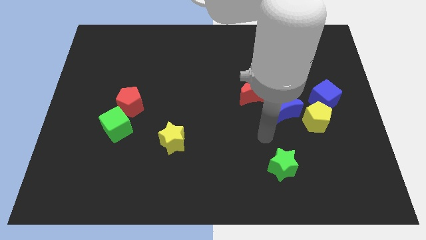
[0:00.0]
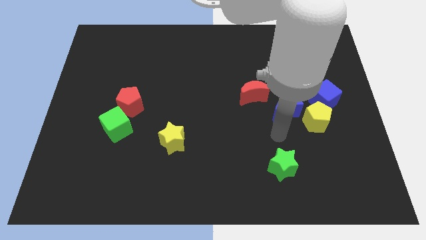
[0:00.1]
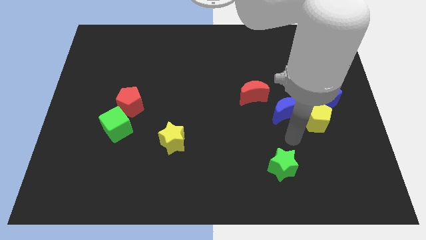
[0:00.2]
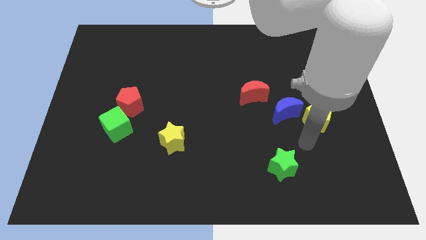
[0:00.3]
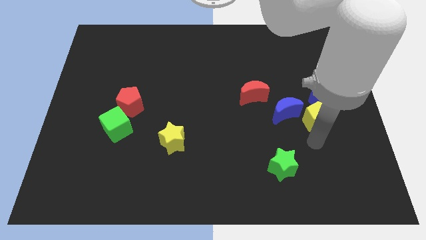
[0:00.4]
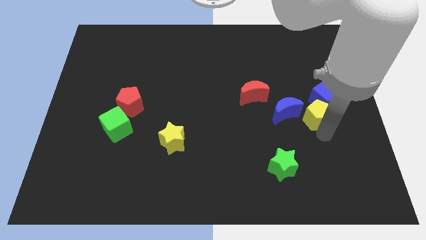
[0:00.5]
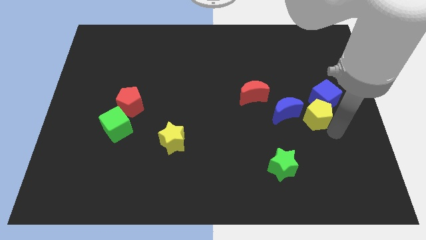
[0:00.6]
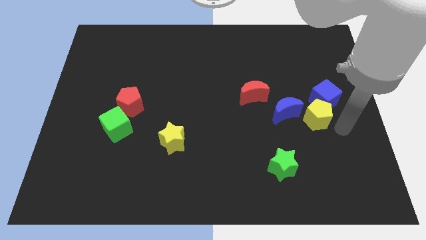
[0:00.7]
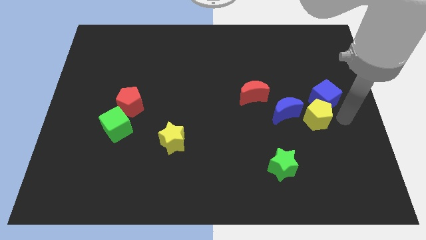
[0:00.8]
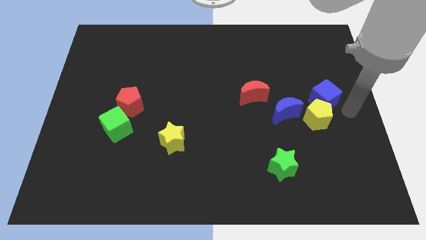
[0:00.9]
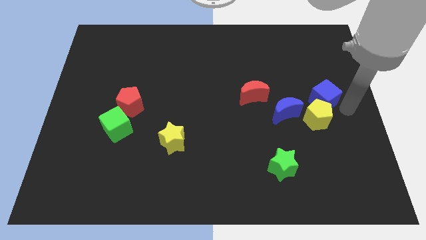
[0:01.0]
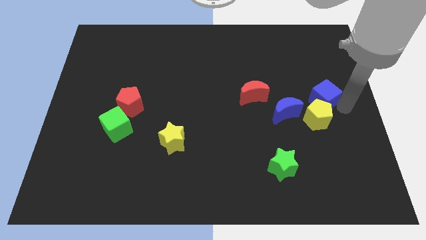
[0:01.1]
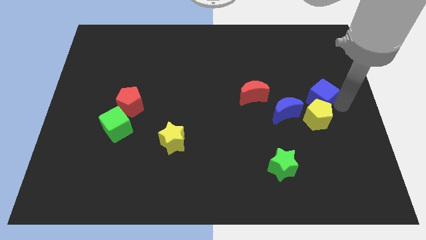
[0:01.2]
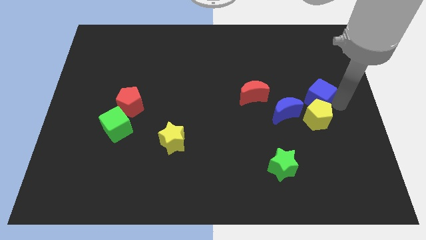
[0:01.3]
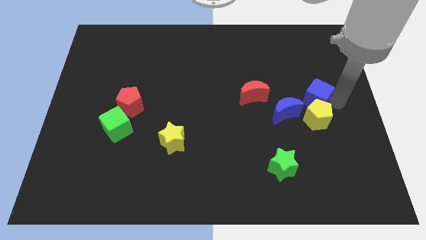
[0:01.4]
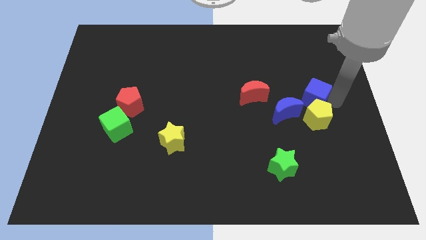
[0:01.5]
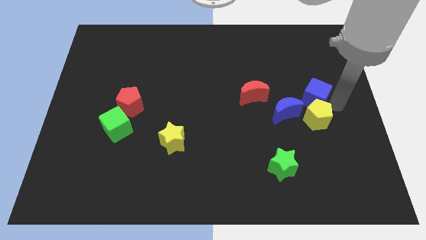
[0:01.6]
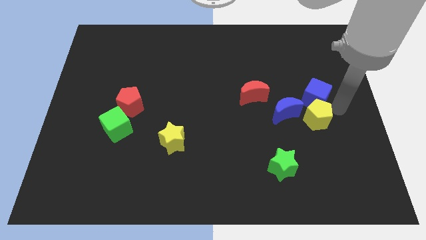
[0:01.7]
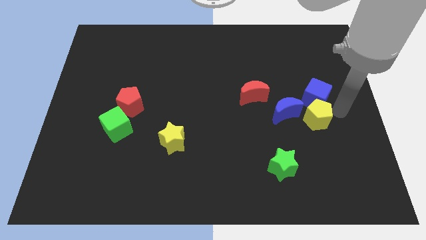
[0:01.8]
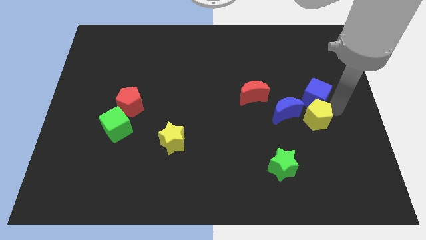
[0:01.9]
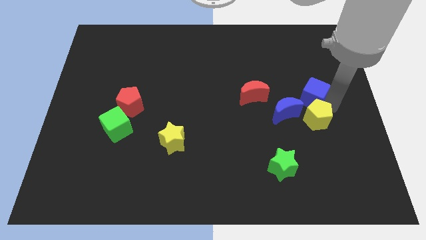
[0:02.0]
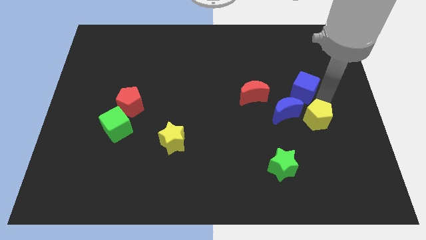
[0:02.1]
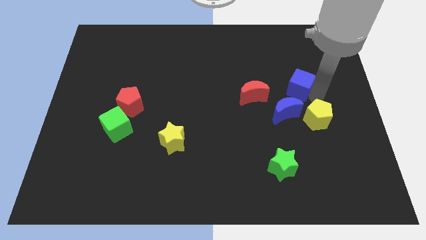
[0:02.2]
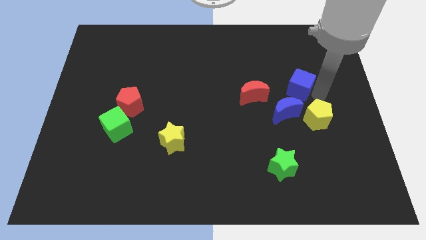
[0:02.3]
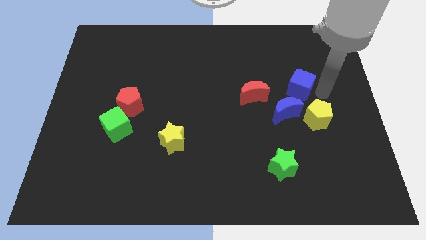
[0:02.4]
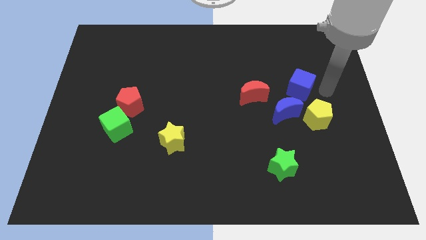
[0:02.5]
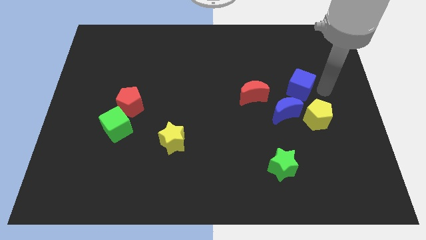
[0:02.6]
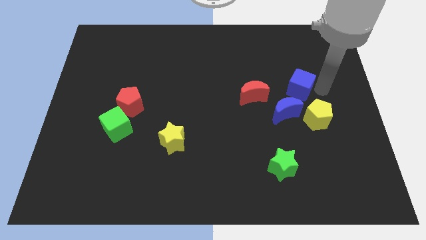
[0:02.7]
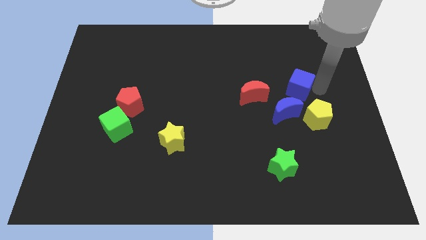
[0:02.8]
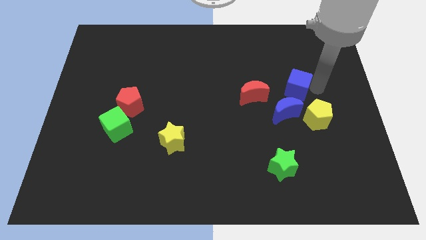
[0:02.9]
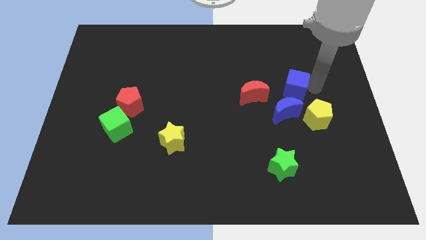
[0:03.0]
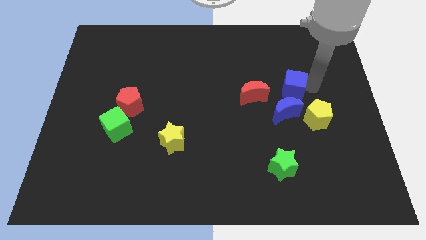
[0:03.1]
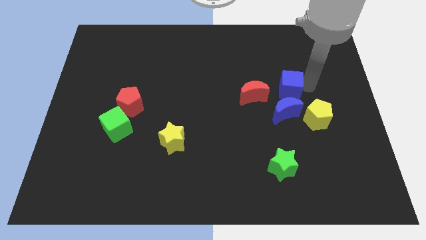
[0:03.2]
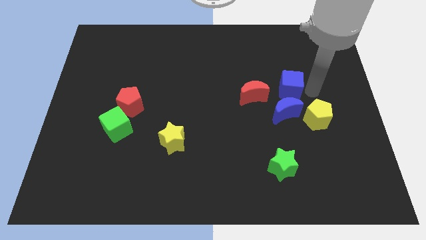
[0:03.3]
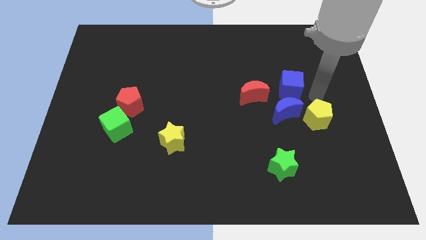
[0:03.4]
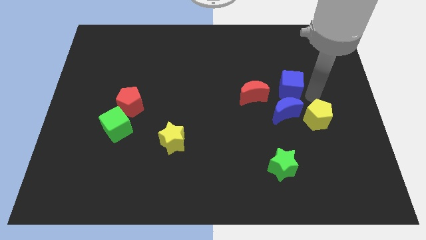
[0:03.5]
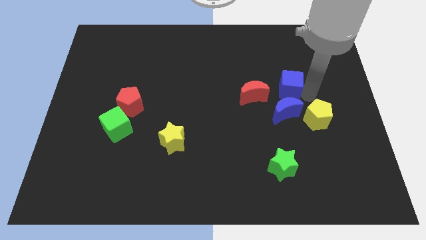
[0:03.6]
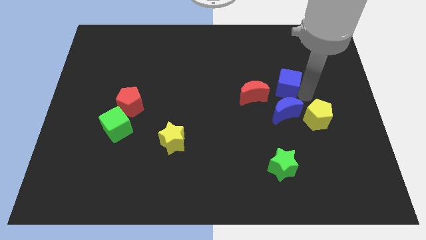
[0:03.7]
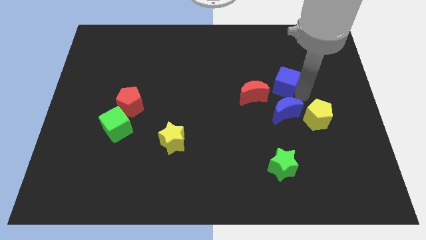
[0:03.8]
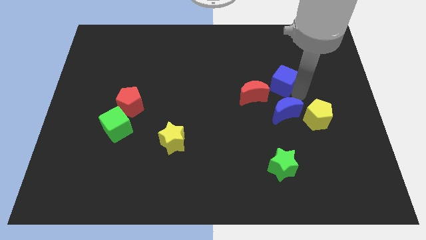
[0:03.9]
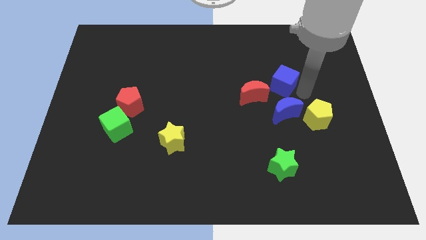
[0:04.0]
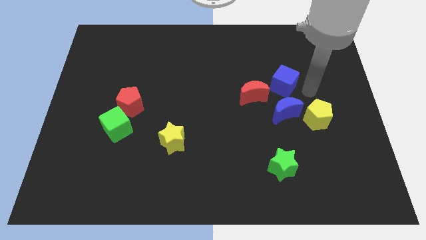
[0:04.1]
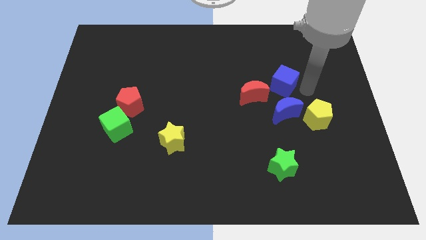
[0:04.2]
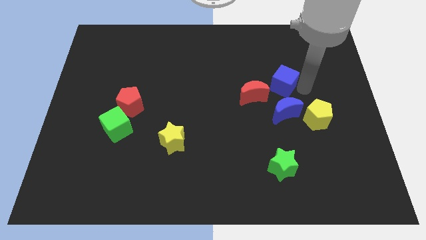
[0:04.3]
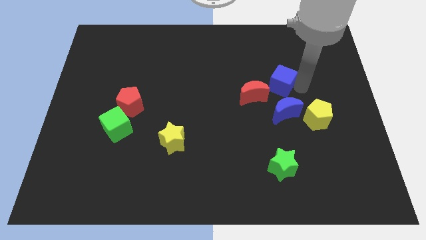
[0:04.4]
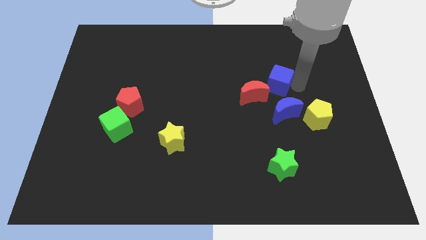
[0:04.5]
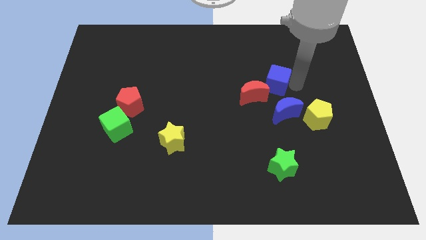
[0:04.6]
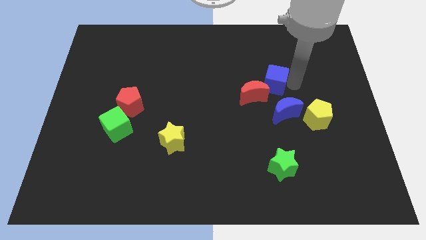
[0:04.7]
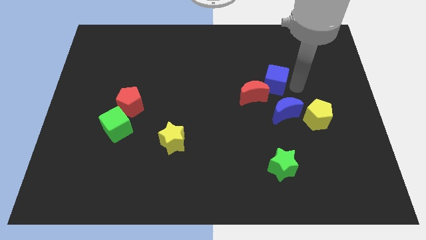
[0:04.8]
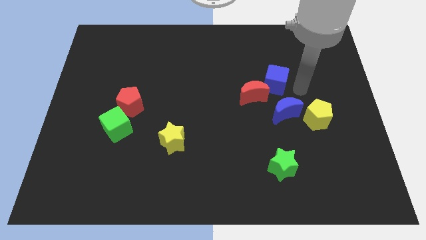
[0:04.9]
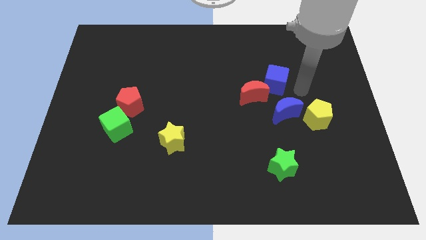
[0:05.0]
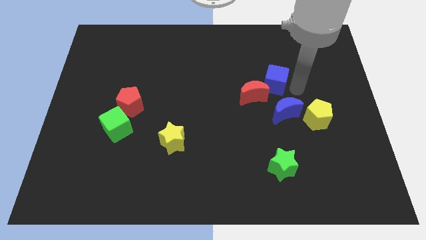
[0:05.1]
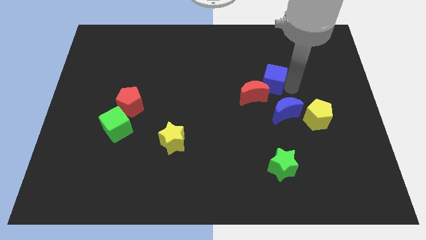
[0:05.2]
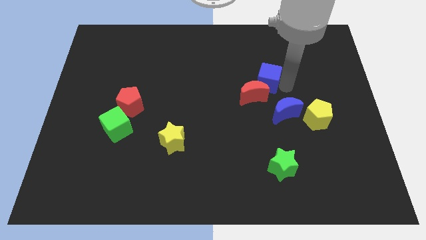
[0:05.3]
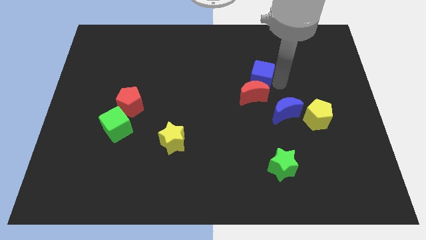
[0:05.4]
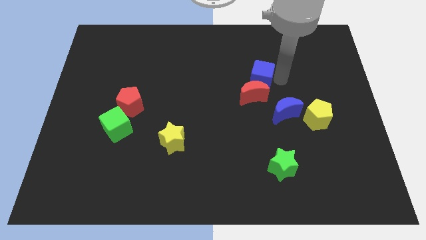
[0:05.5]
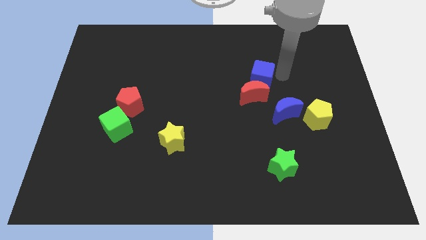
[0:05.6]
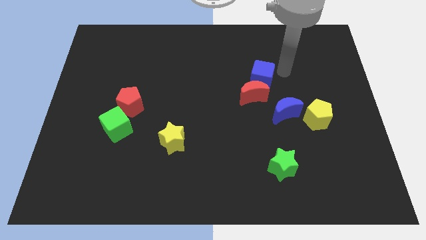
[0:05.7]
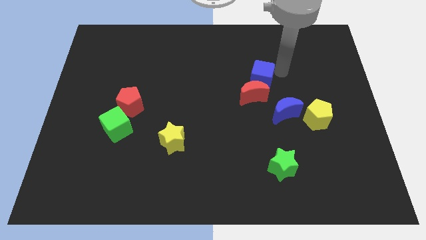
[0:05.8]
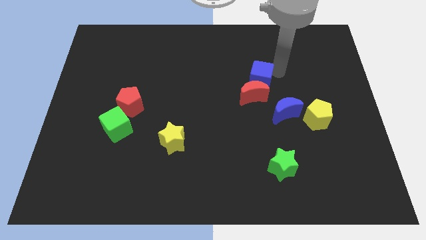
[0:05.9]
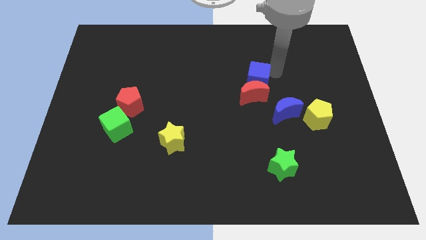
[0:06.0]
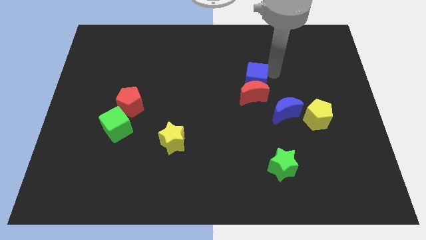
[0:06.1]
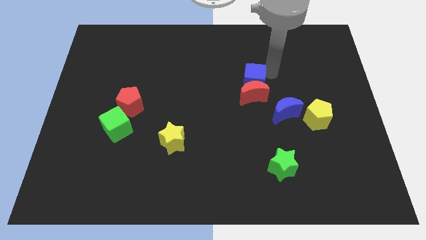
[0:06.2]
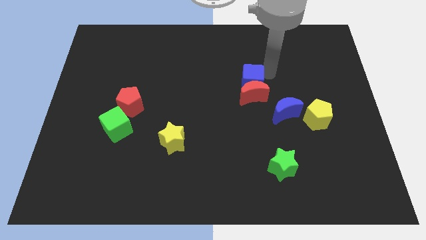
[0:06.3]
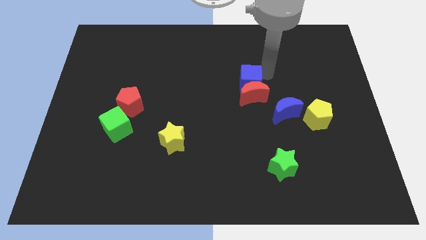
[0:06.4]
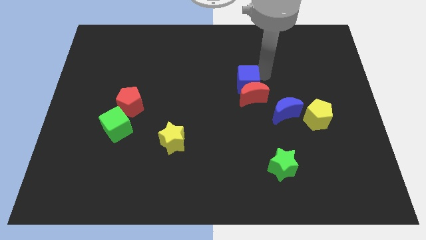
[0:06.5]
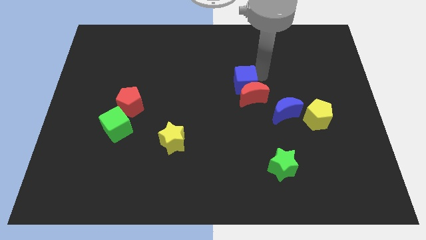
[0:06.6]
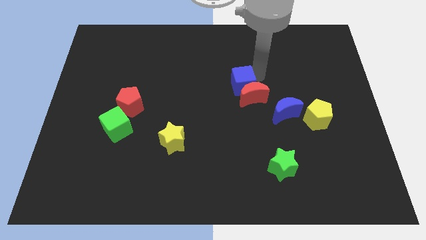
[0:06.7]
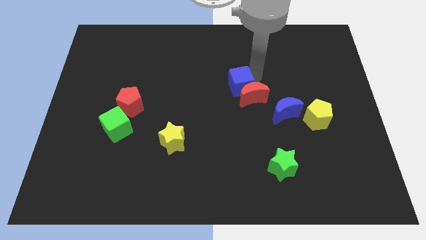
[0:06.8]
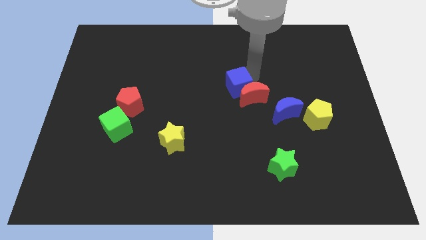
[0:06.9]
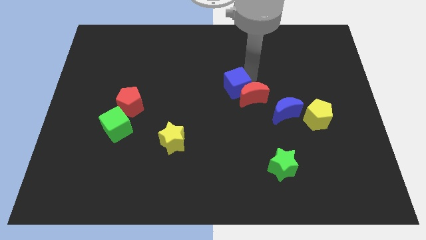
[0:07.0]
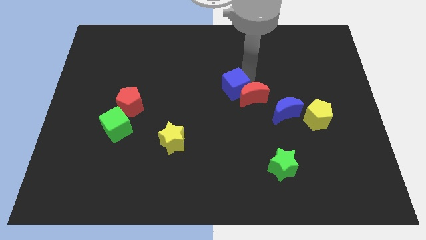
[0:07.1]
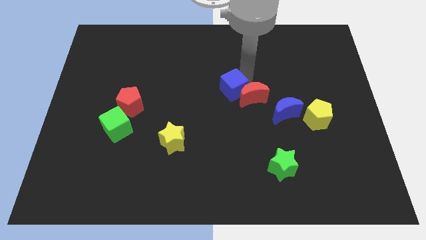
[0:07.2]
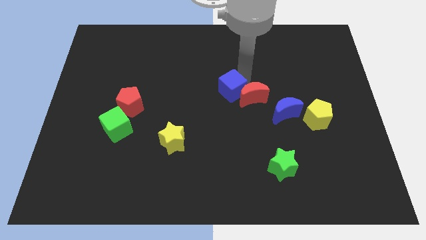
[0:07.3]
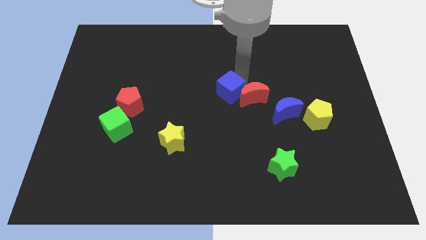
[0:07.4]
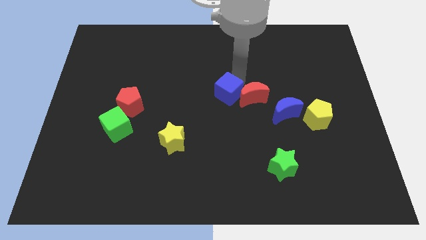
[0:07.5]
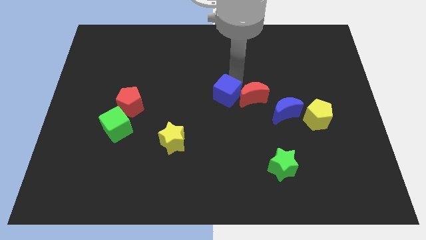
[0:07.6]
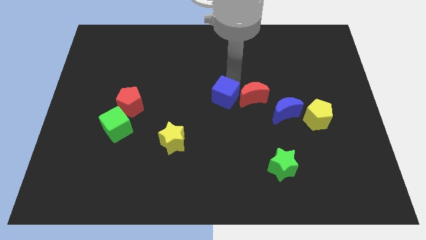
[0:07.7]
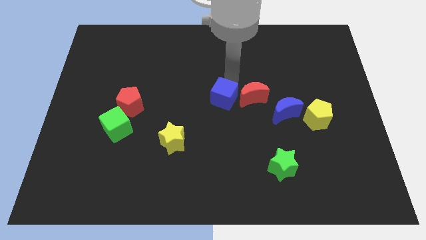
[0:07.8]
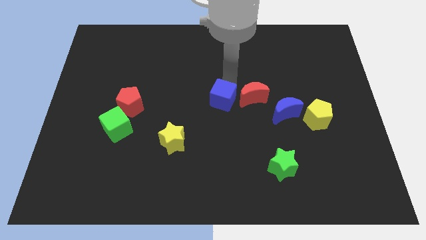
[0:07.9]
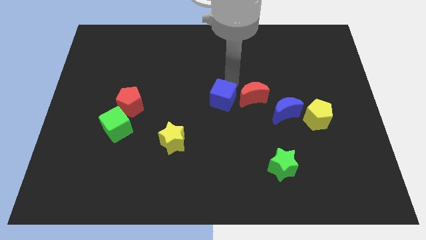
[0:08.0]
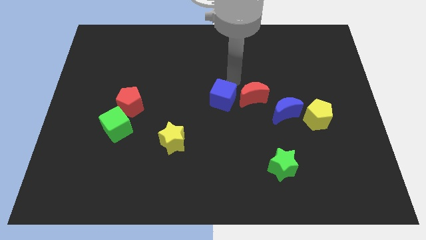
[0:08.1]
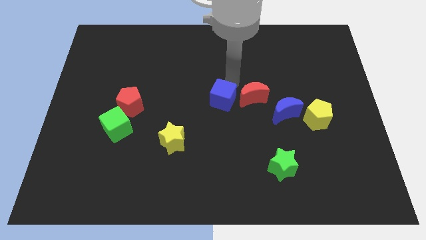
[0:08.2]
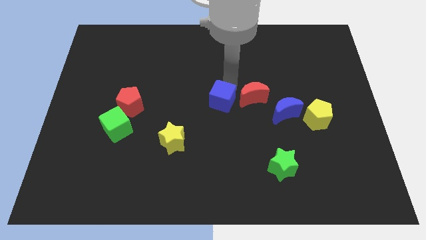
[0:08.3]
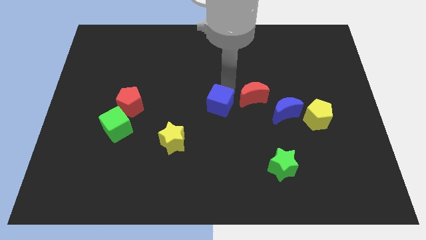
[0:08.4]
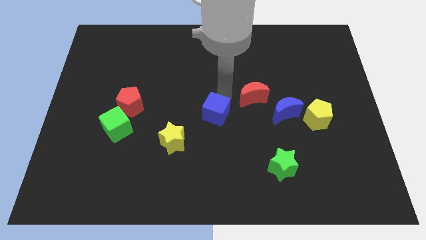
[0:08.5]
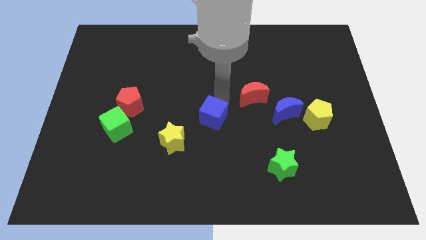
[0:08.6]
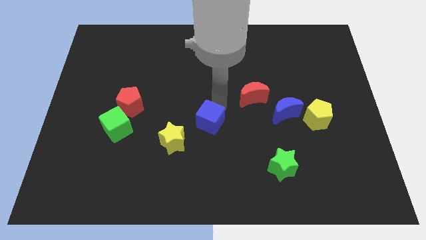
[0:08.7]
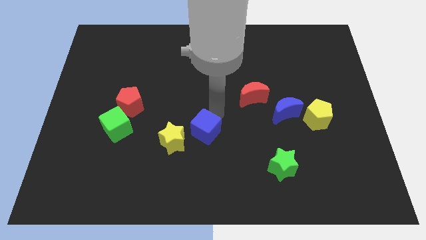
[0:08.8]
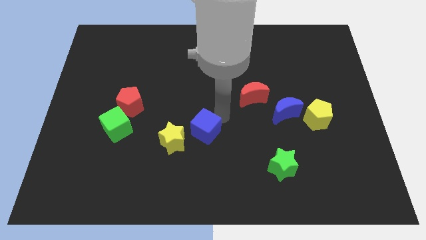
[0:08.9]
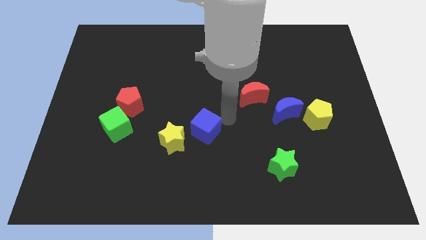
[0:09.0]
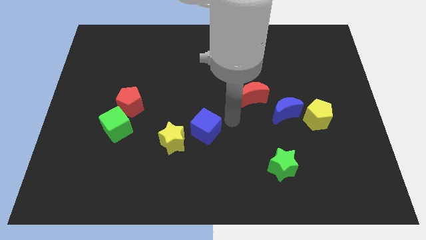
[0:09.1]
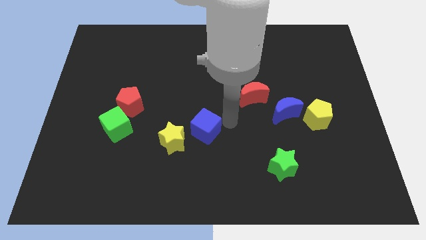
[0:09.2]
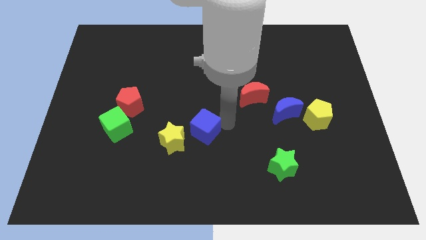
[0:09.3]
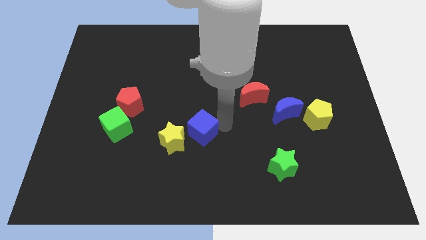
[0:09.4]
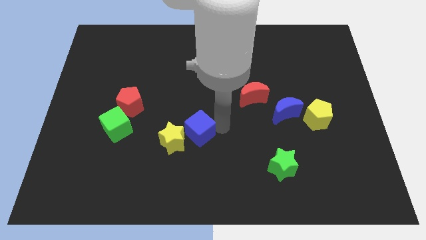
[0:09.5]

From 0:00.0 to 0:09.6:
move the blue cube to the yellow star
